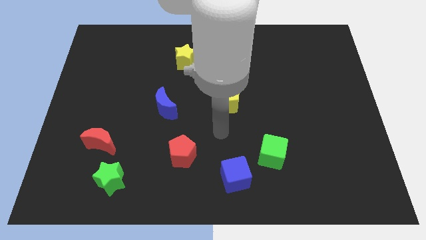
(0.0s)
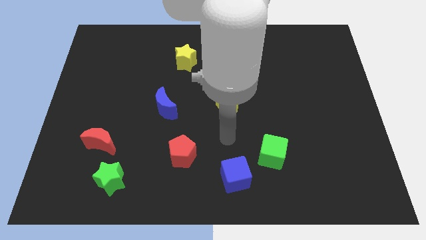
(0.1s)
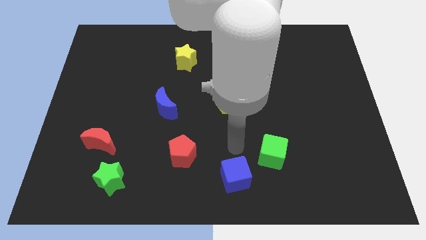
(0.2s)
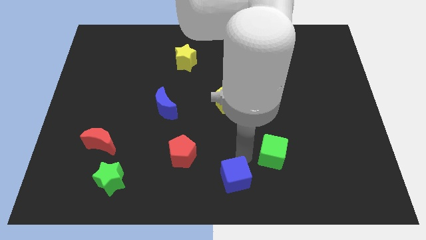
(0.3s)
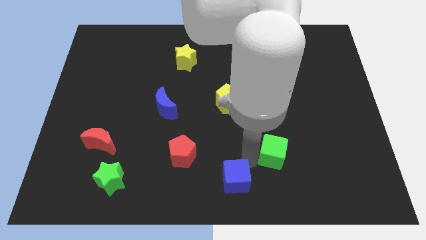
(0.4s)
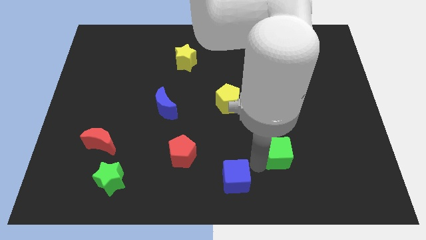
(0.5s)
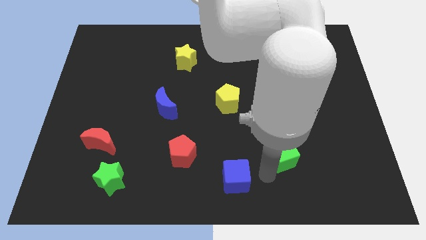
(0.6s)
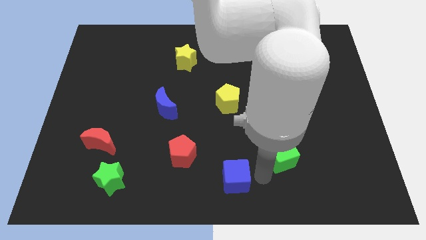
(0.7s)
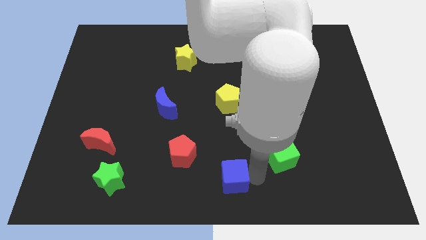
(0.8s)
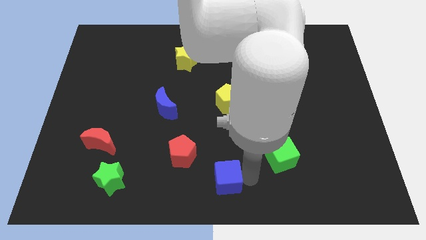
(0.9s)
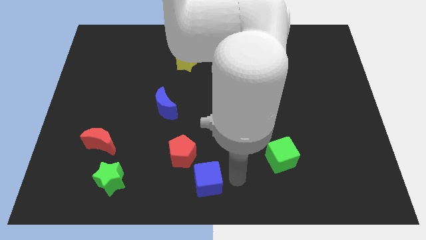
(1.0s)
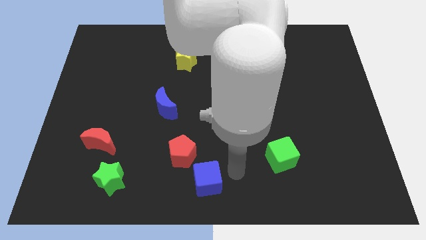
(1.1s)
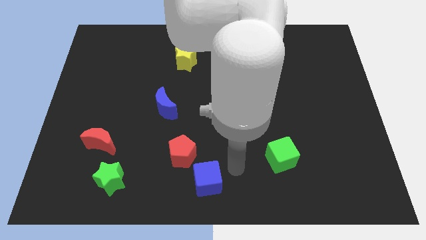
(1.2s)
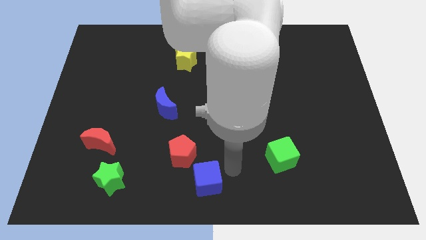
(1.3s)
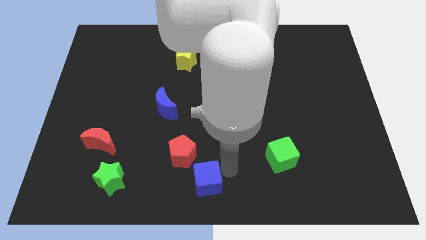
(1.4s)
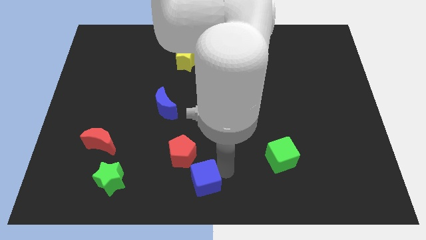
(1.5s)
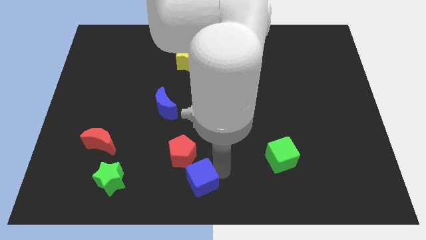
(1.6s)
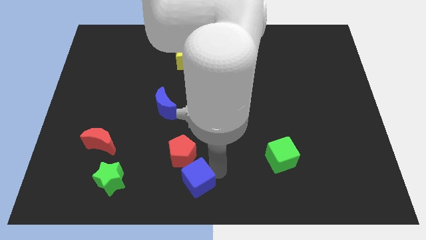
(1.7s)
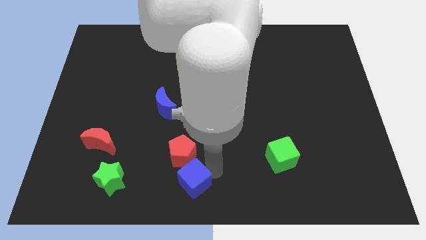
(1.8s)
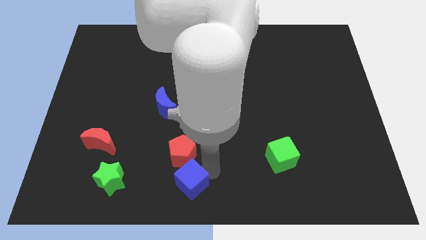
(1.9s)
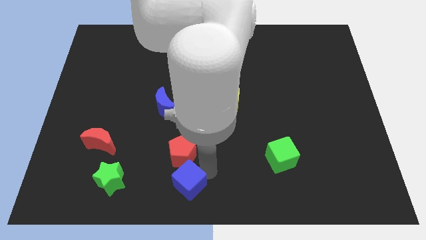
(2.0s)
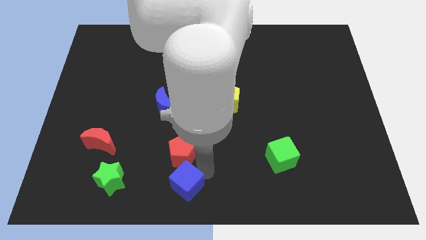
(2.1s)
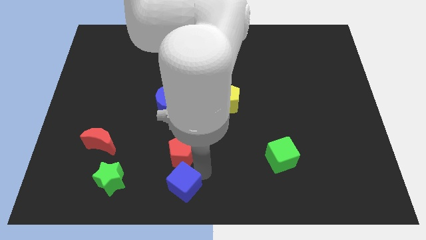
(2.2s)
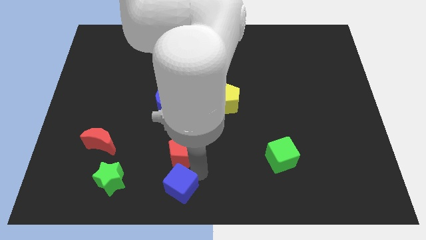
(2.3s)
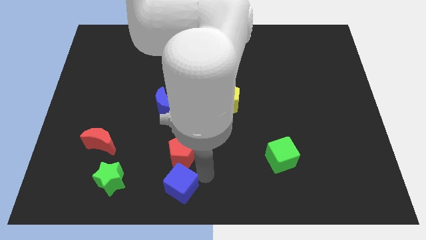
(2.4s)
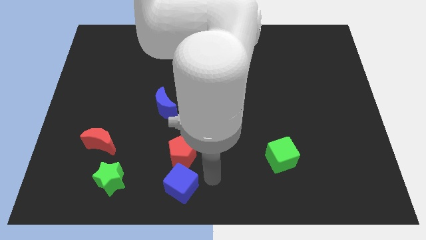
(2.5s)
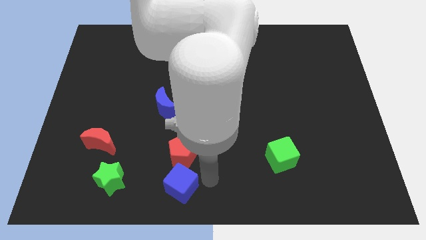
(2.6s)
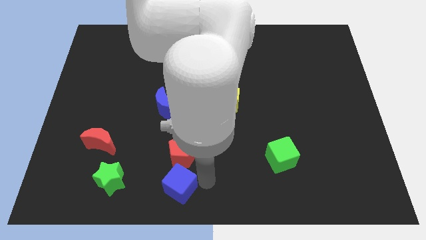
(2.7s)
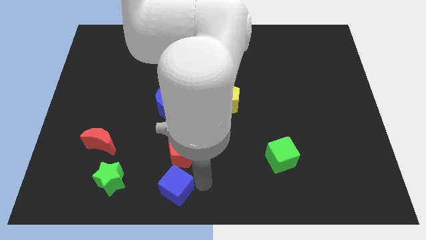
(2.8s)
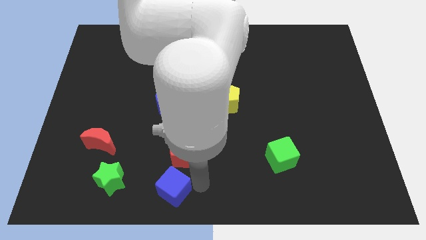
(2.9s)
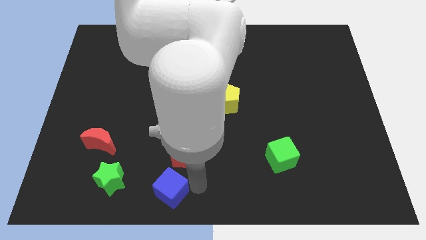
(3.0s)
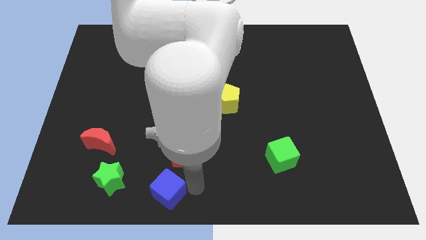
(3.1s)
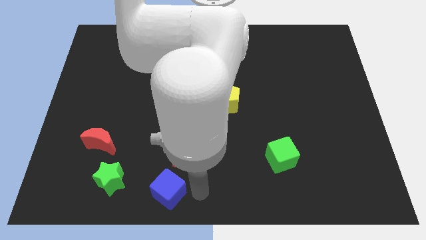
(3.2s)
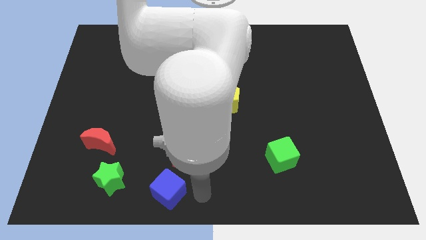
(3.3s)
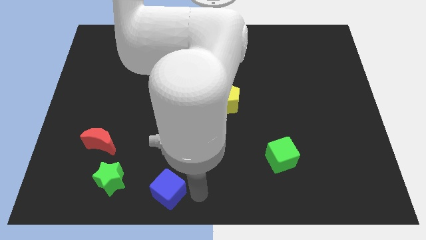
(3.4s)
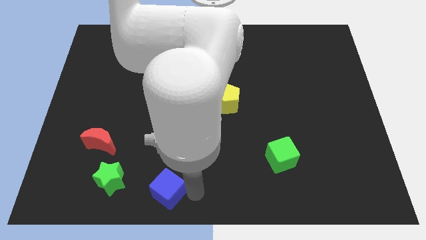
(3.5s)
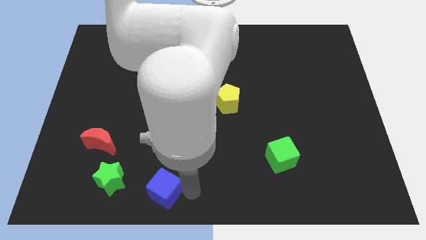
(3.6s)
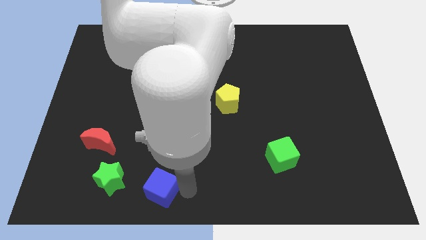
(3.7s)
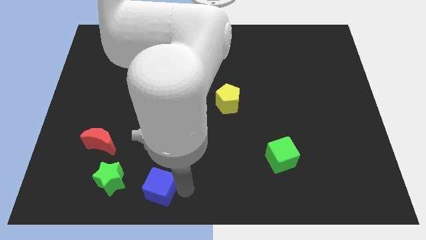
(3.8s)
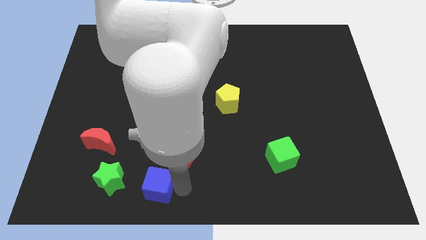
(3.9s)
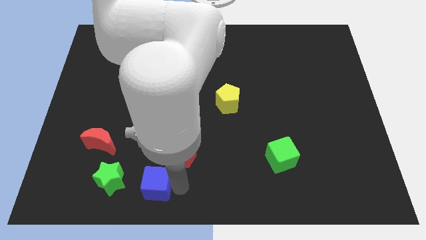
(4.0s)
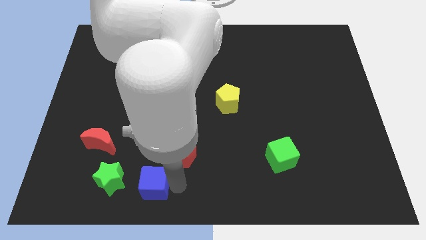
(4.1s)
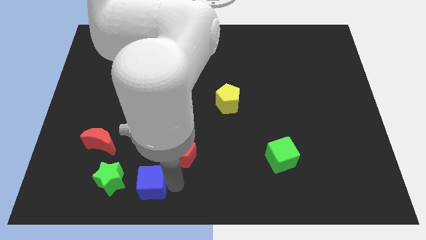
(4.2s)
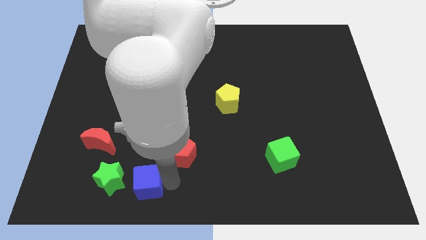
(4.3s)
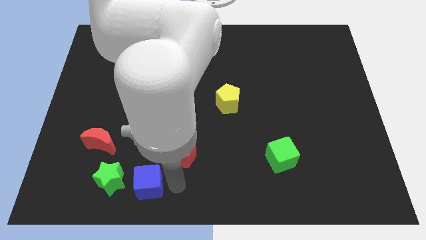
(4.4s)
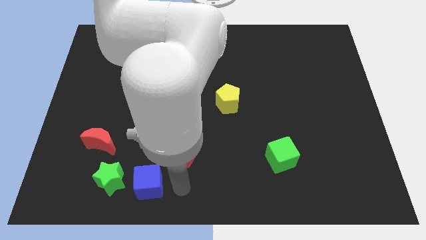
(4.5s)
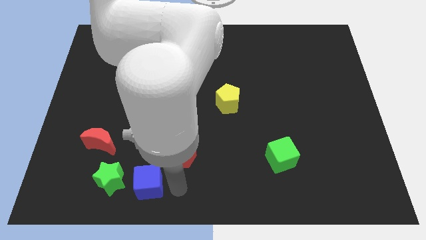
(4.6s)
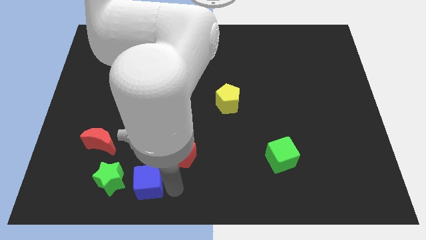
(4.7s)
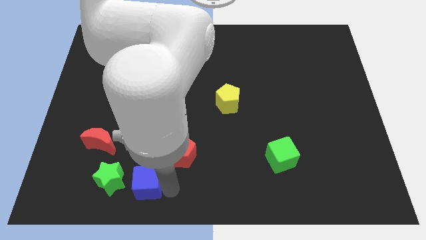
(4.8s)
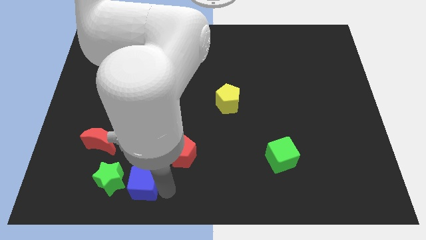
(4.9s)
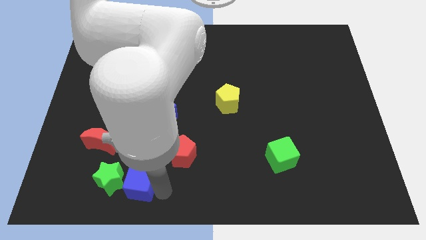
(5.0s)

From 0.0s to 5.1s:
move the blue cube to the green star

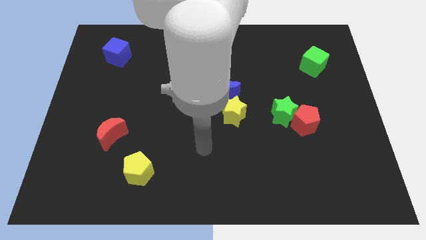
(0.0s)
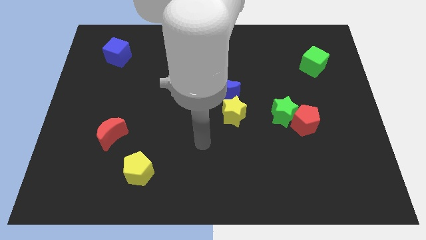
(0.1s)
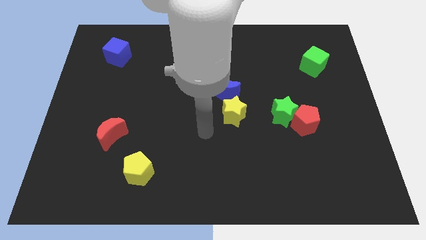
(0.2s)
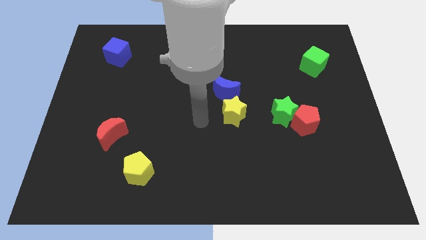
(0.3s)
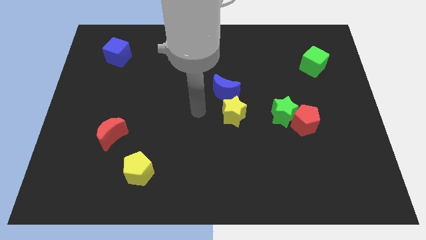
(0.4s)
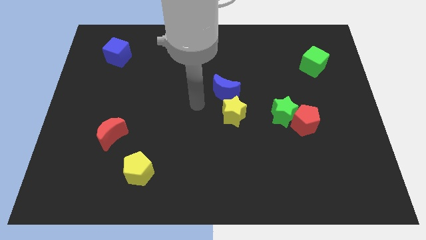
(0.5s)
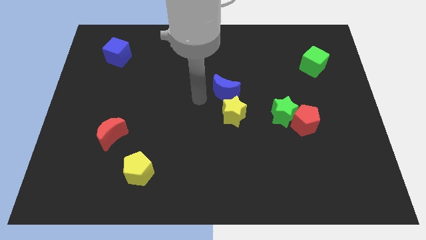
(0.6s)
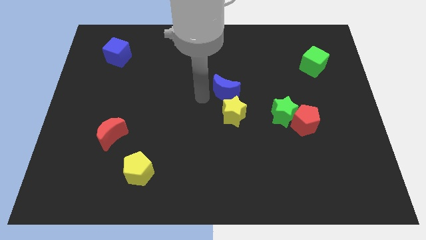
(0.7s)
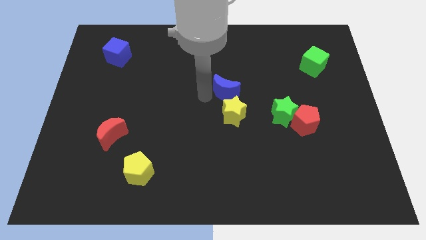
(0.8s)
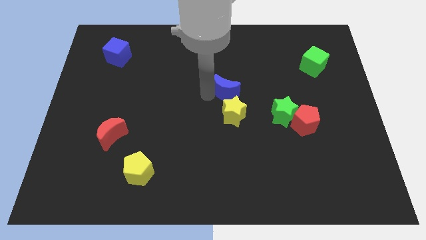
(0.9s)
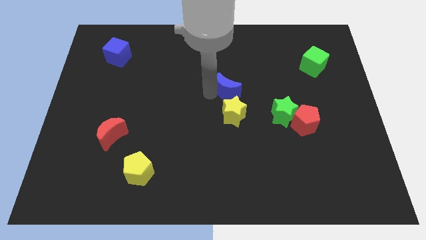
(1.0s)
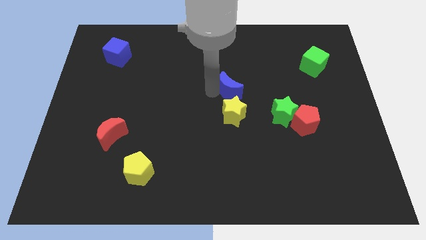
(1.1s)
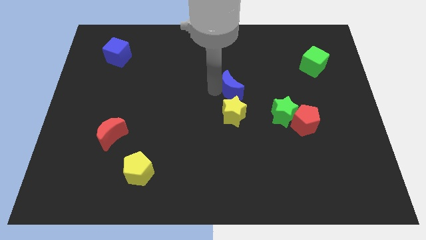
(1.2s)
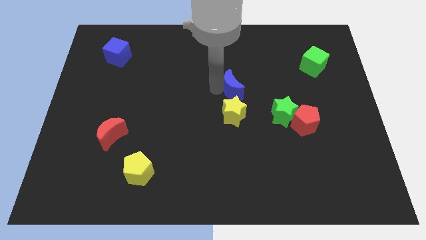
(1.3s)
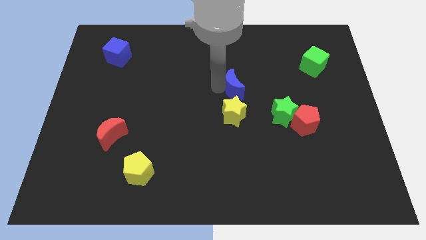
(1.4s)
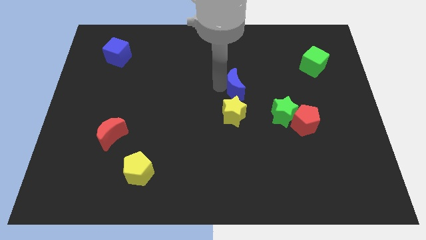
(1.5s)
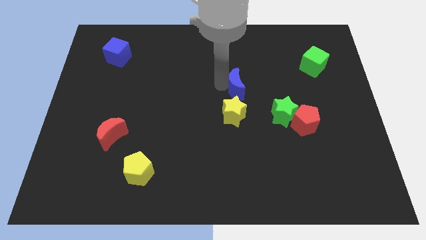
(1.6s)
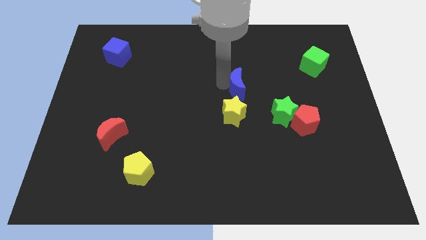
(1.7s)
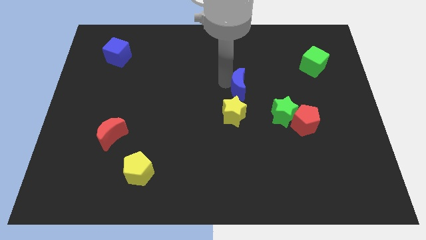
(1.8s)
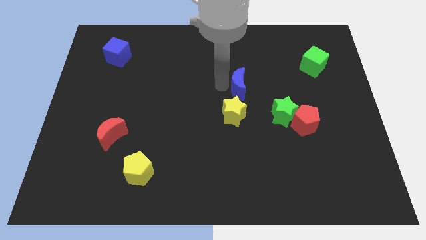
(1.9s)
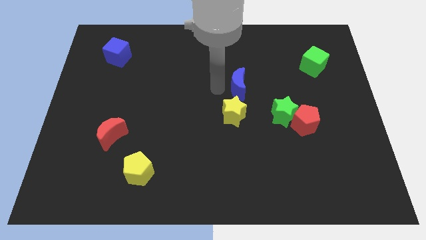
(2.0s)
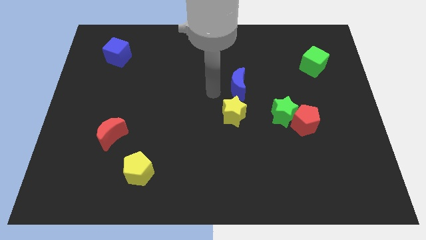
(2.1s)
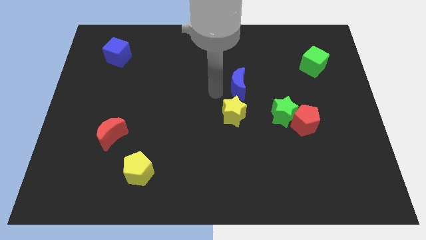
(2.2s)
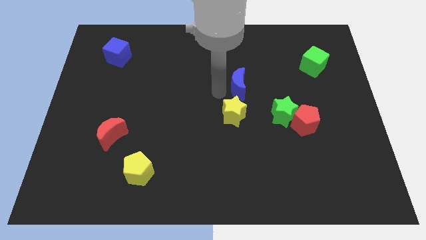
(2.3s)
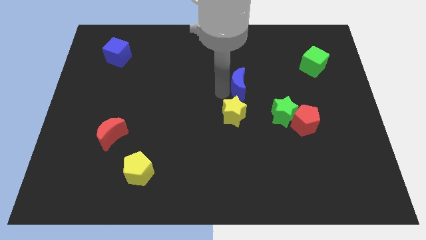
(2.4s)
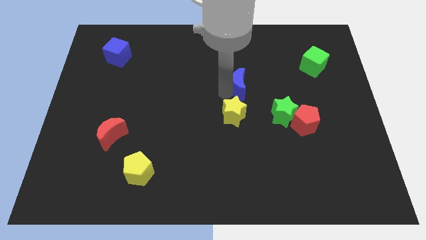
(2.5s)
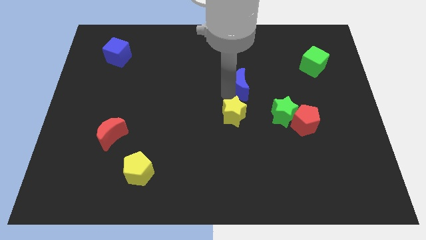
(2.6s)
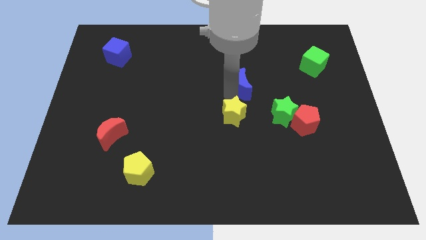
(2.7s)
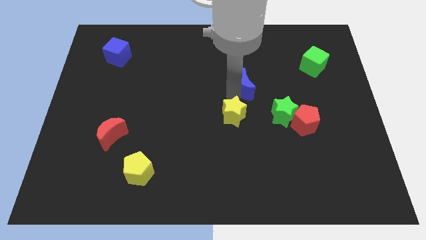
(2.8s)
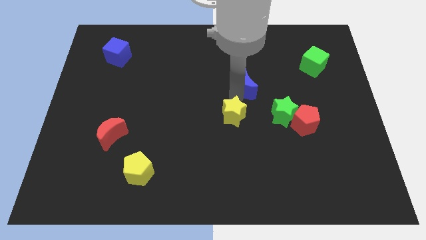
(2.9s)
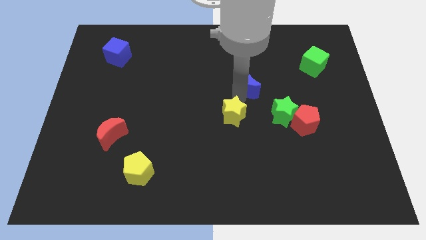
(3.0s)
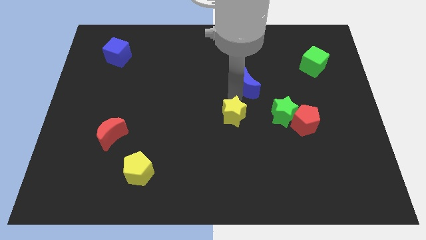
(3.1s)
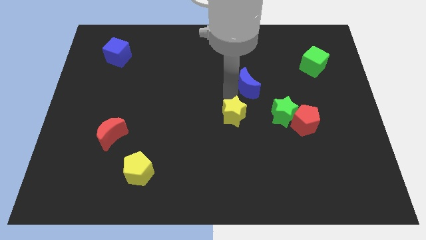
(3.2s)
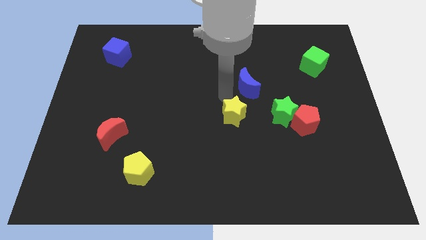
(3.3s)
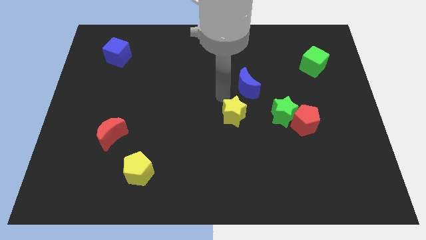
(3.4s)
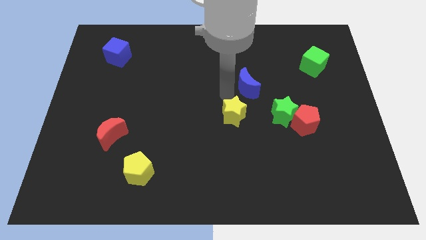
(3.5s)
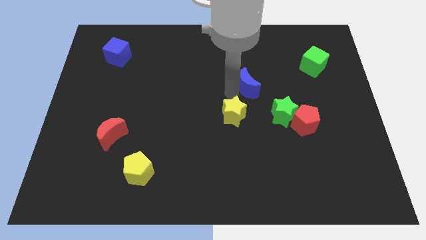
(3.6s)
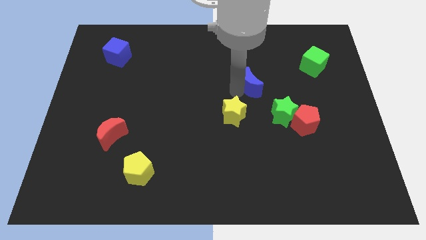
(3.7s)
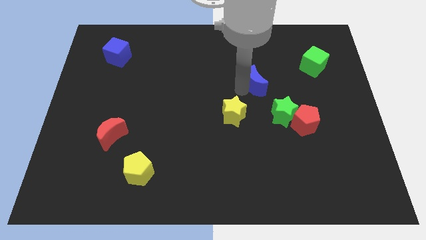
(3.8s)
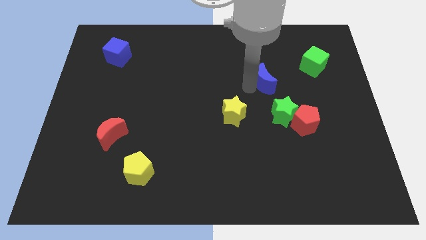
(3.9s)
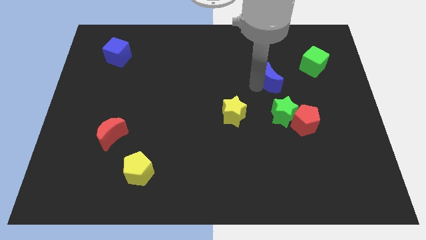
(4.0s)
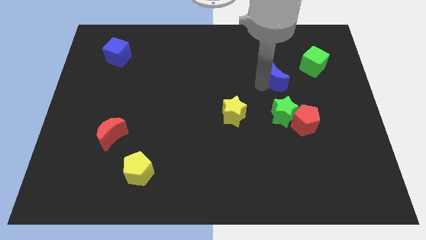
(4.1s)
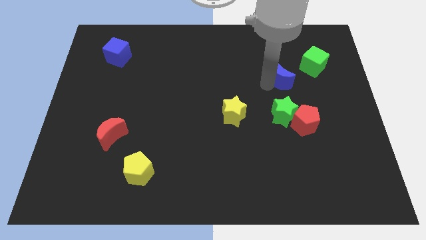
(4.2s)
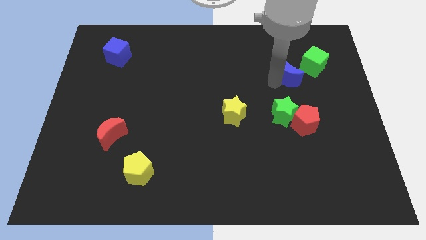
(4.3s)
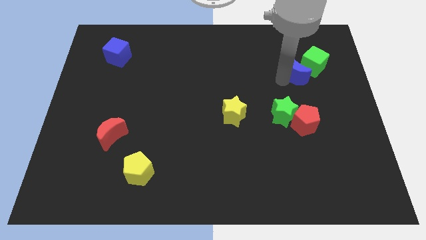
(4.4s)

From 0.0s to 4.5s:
put the blue moon close to the green cube
